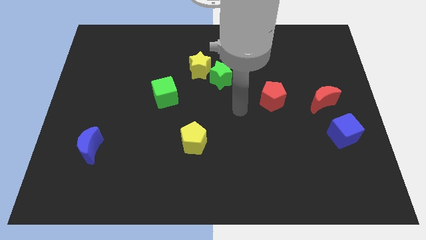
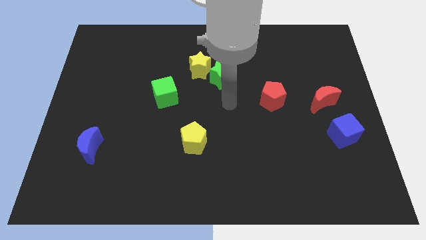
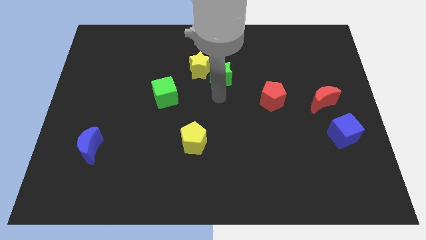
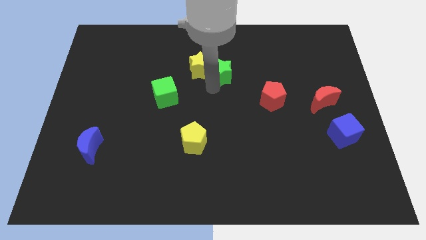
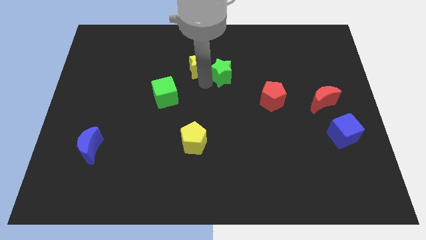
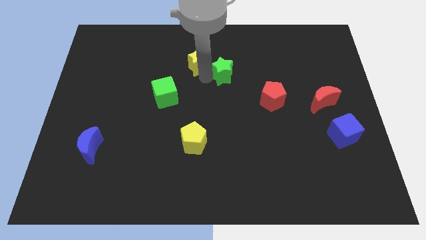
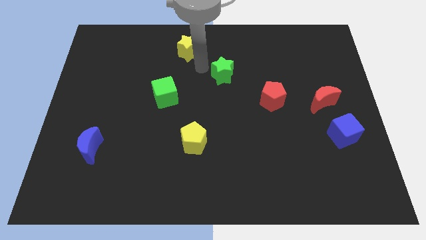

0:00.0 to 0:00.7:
move the green star away from the yellow star

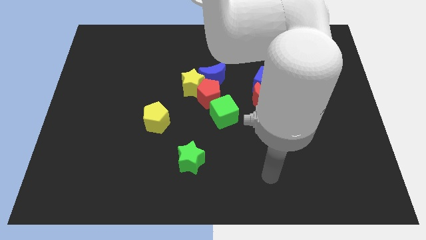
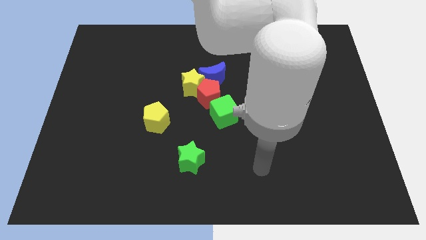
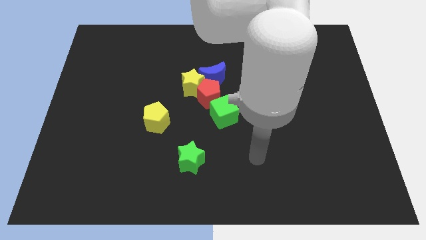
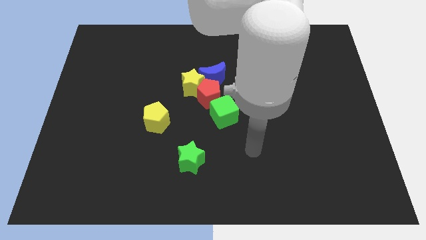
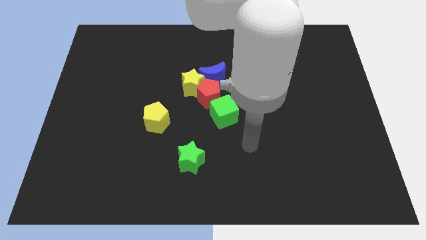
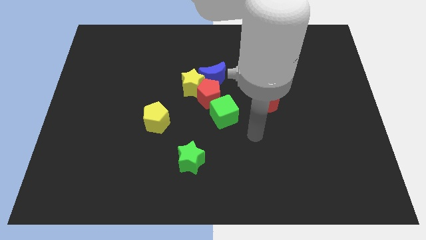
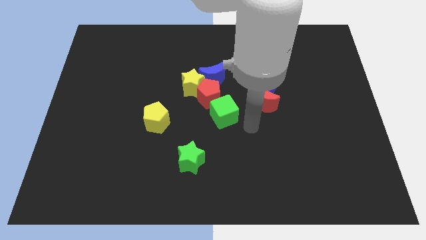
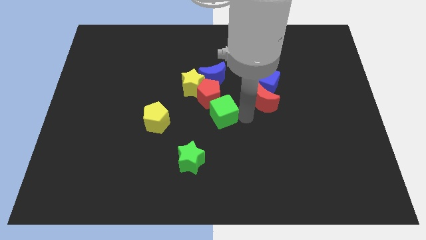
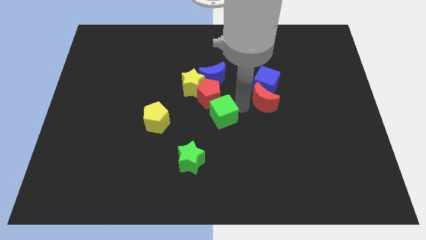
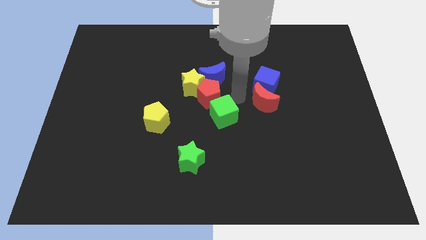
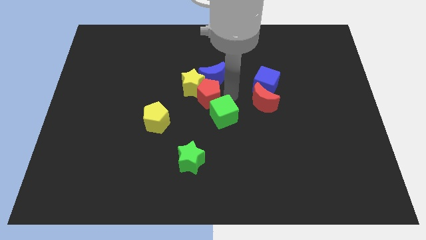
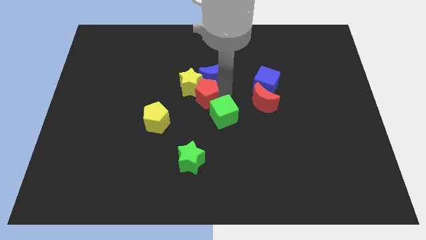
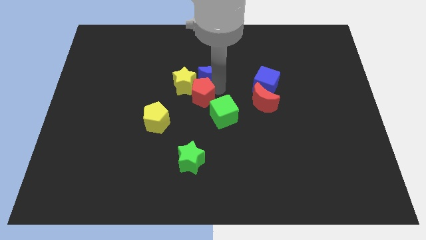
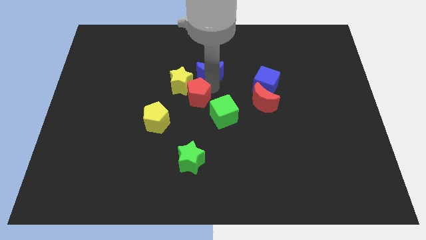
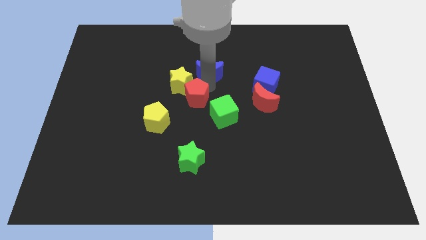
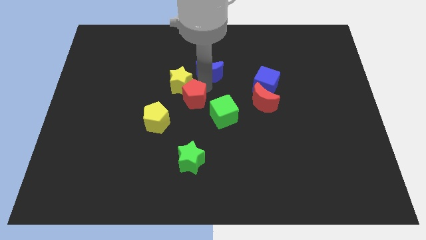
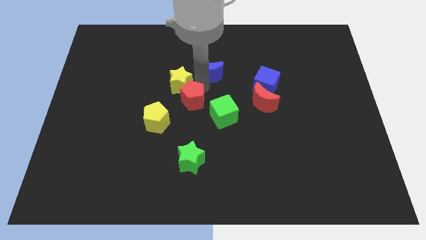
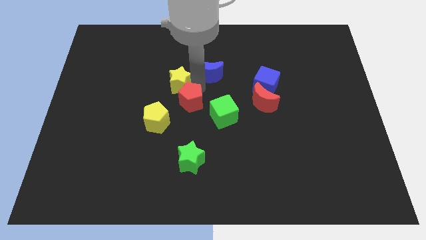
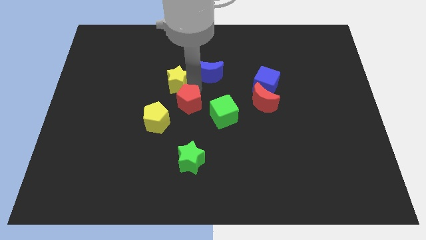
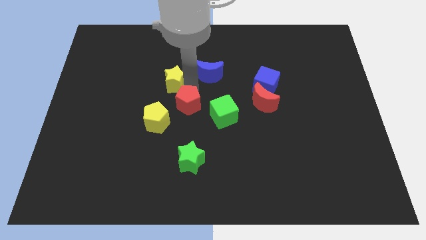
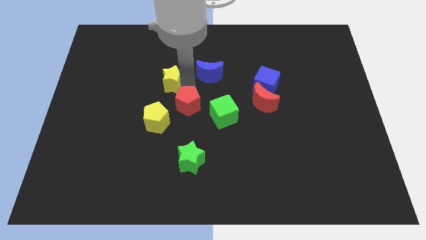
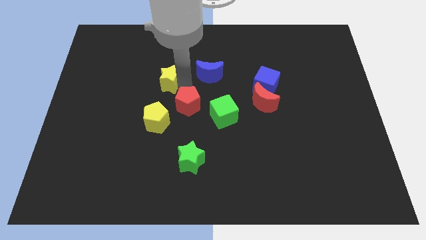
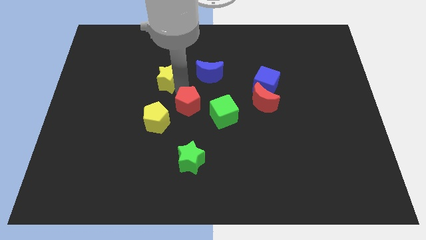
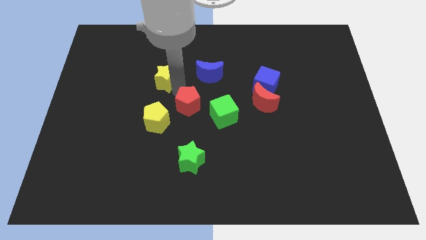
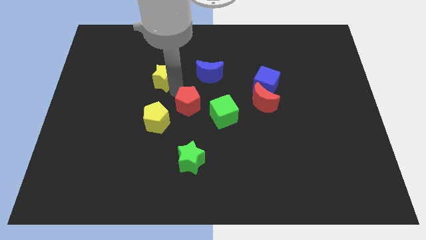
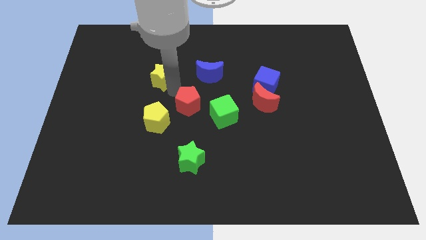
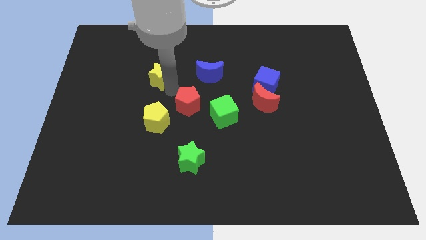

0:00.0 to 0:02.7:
separate the yellow star from the red pentagon and blue moon

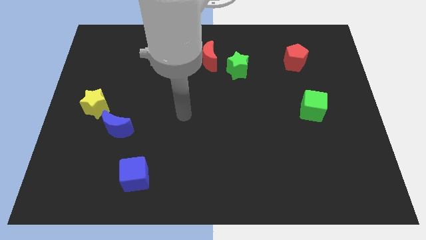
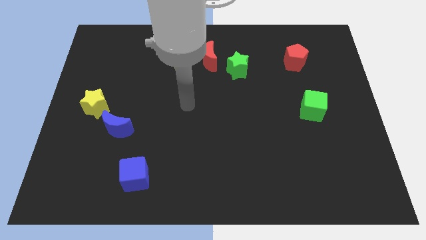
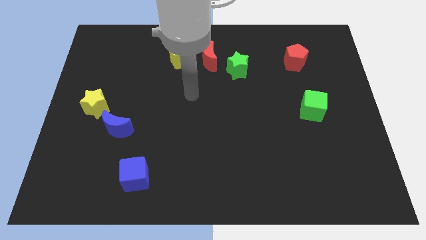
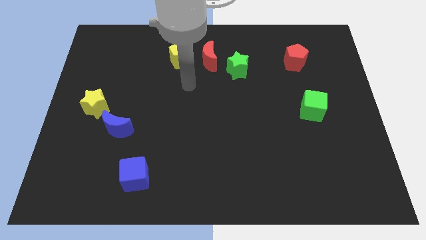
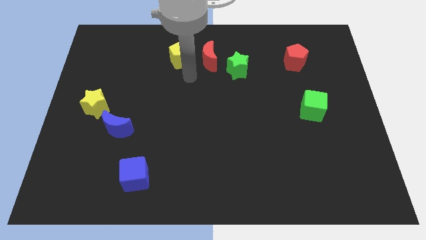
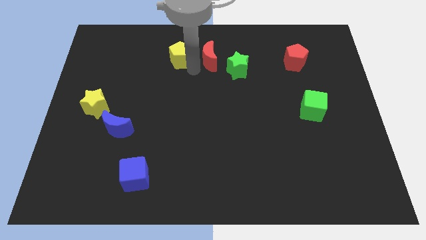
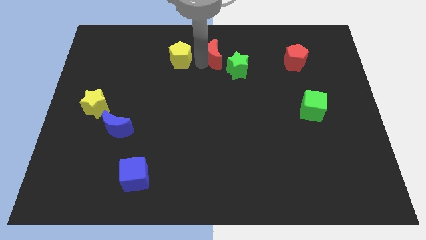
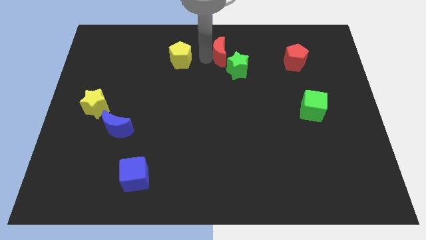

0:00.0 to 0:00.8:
move the yellow pentagon away from the red moon

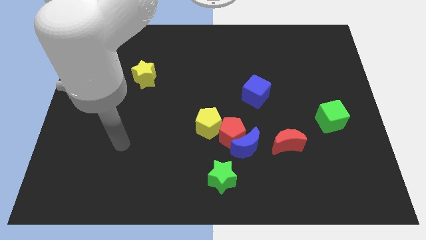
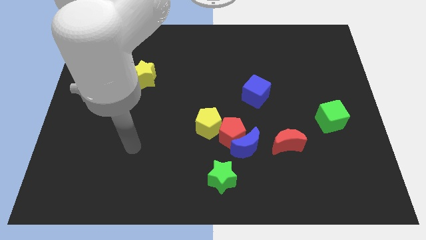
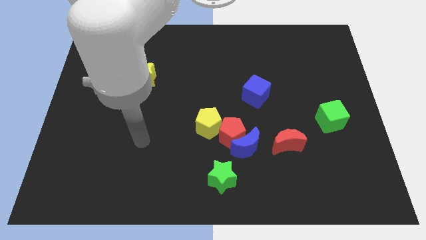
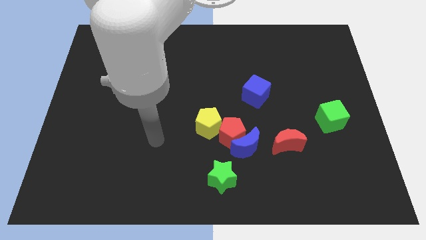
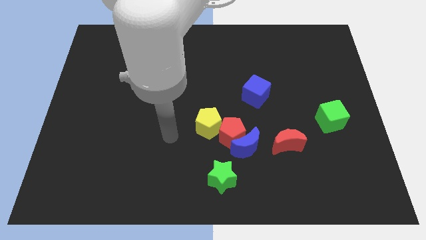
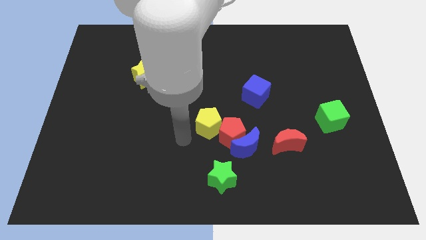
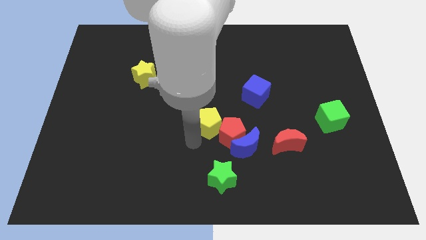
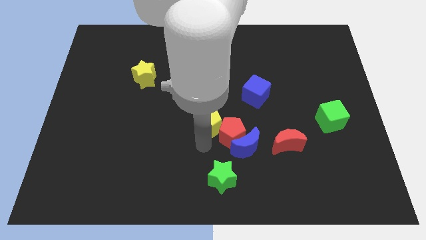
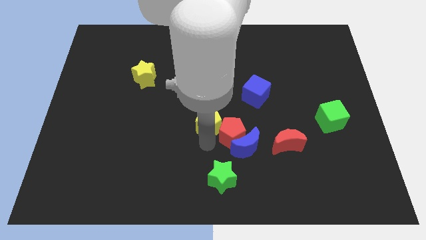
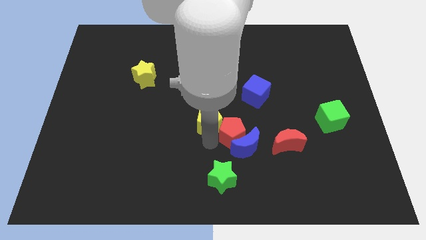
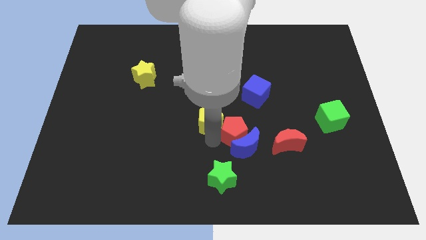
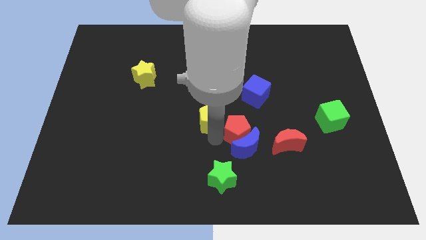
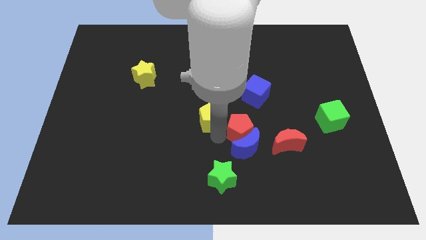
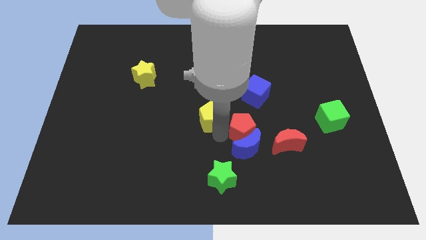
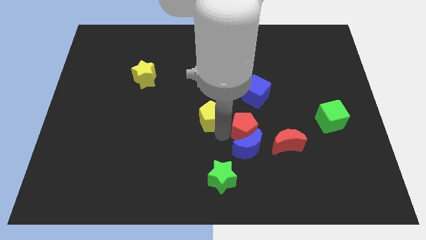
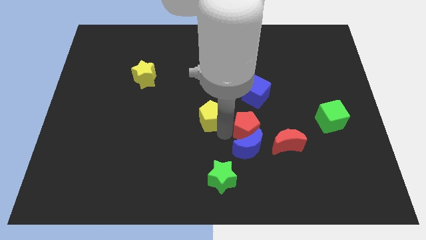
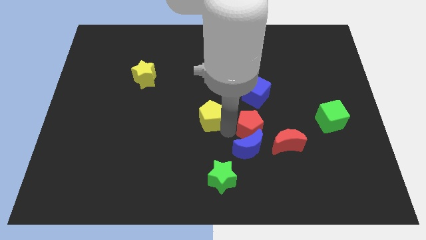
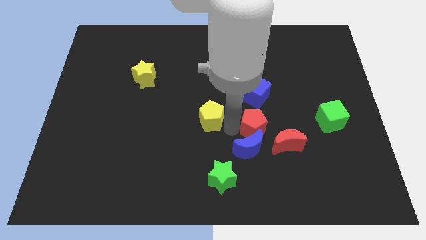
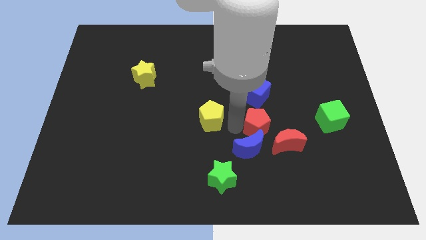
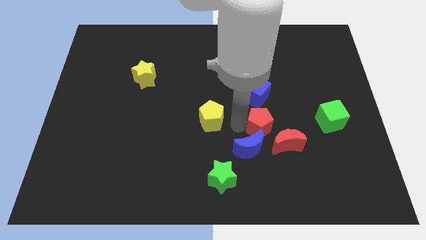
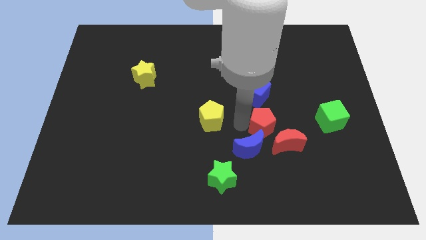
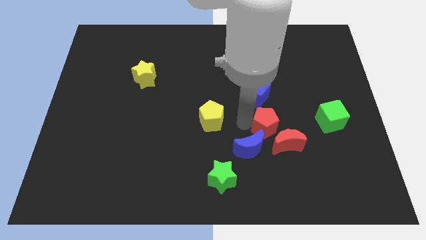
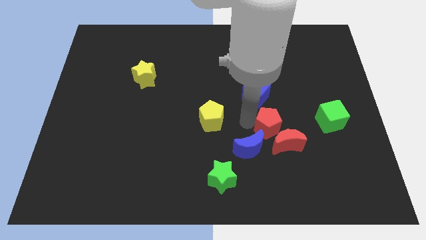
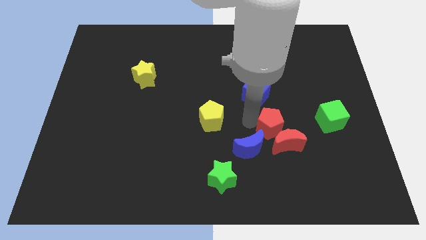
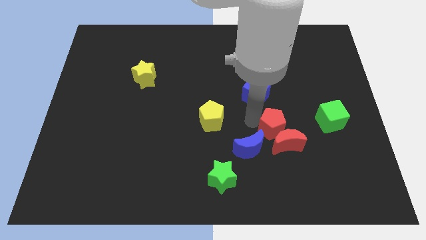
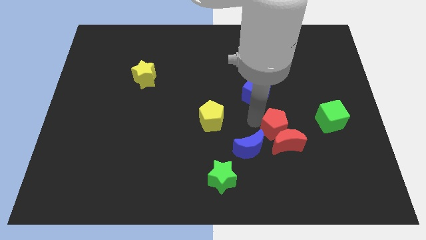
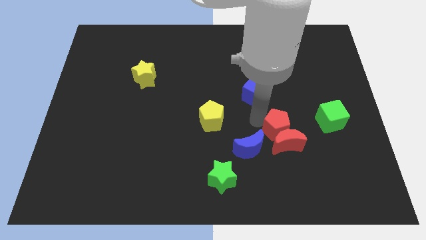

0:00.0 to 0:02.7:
move the red pentagon away from the blue moon and yellow pentagon

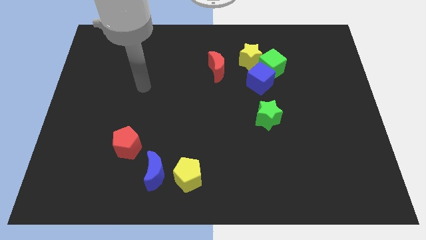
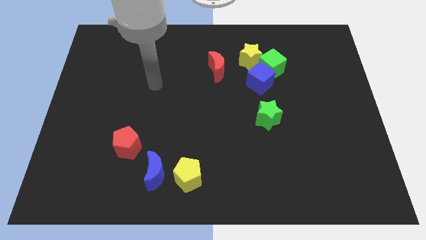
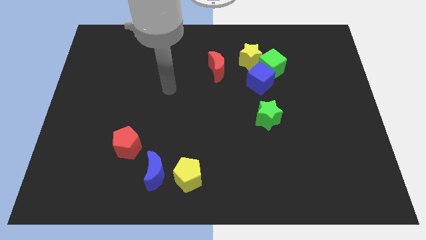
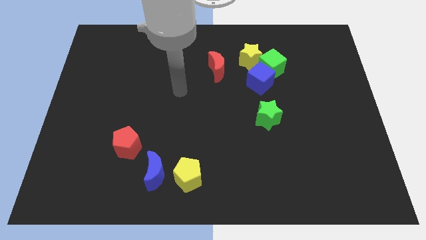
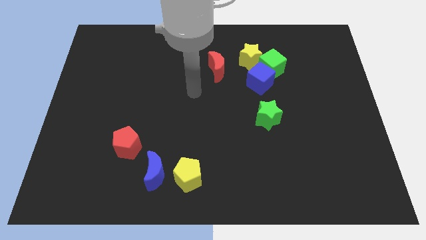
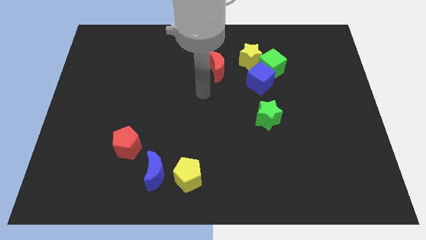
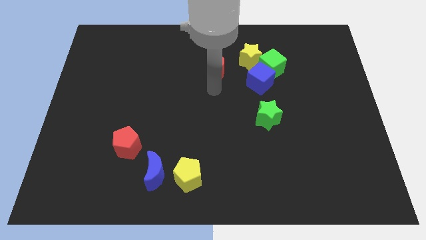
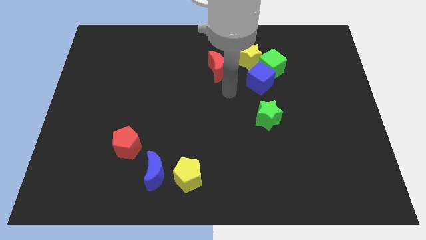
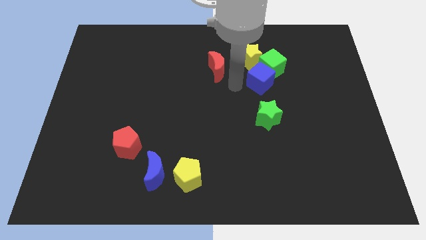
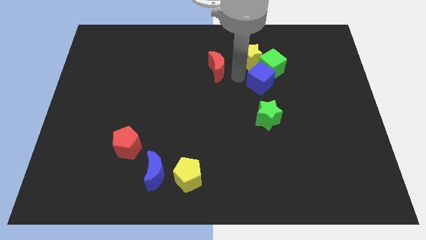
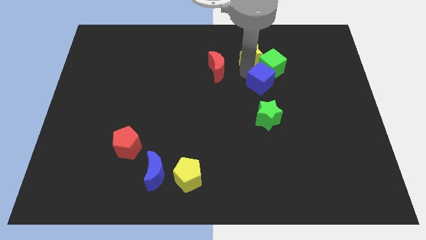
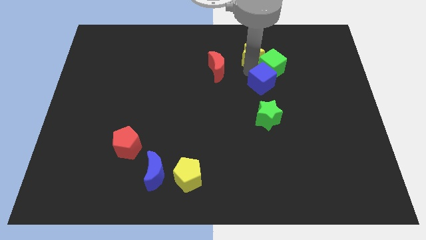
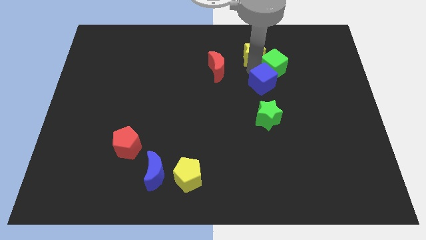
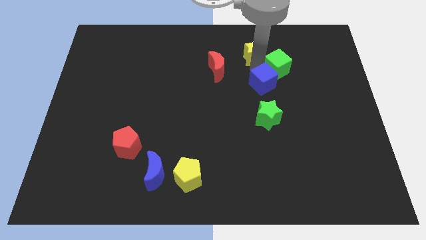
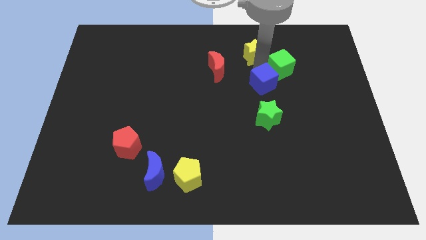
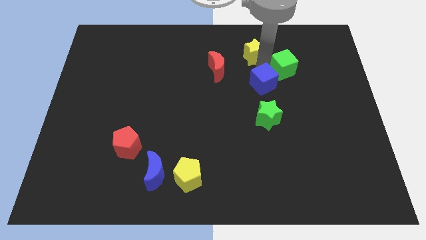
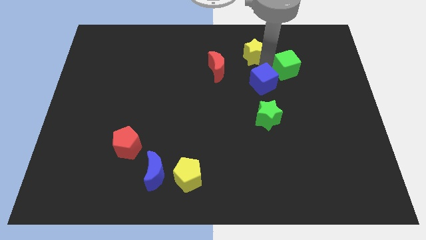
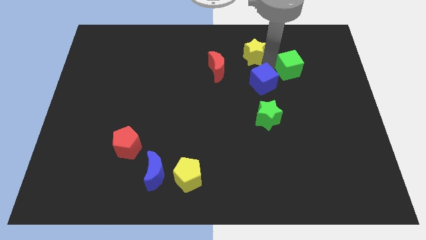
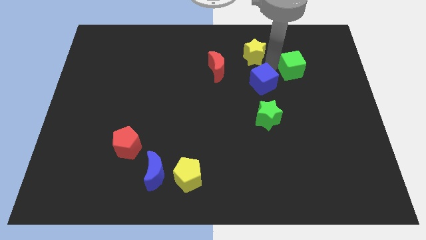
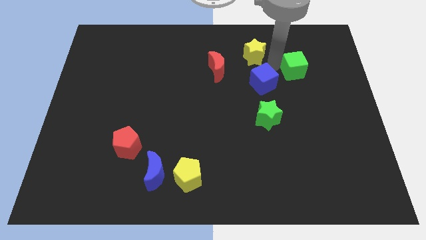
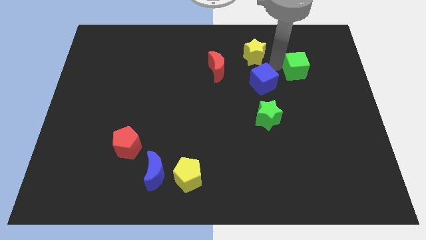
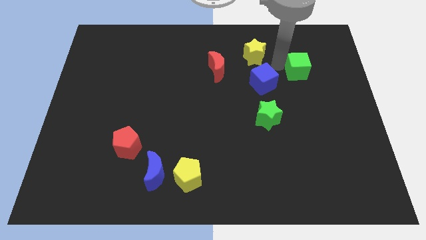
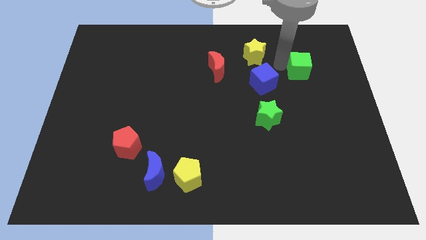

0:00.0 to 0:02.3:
move the green cube away from the blue cube and yellow star
